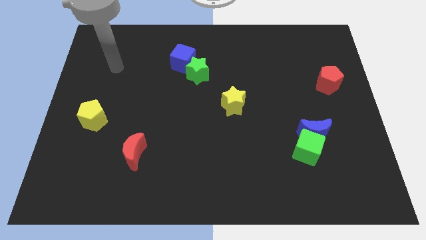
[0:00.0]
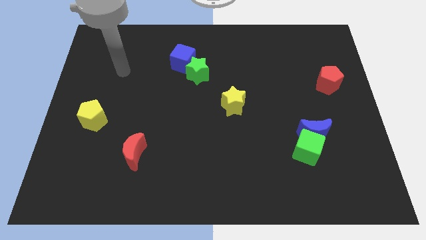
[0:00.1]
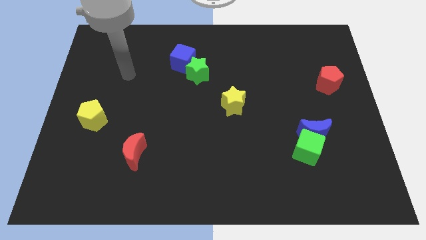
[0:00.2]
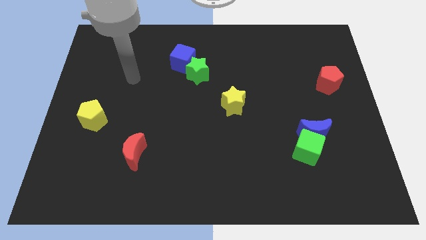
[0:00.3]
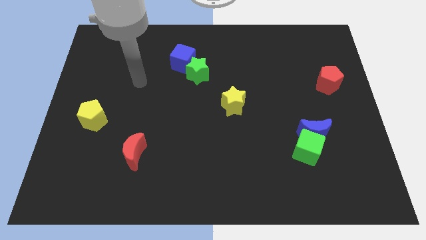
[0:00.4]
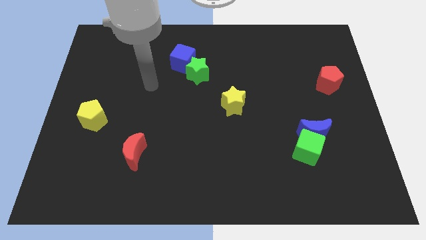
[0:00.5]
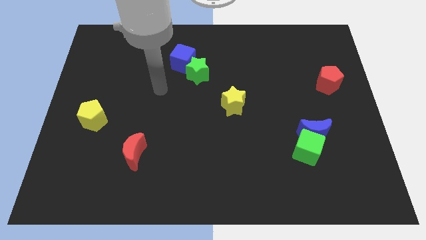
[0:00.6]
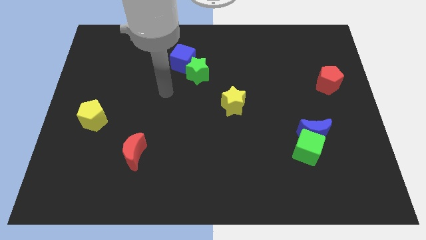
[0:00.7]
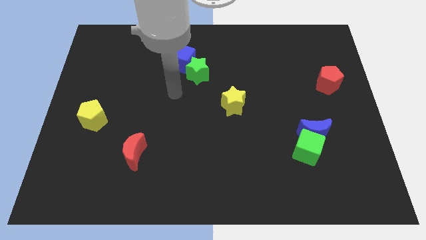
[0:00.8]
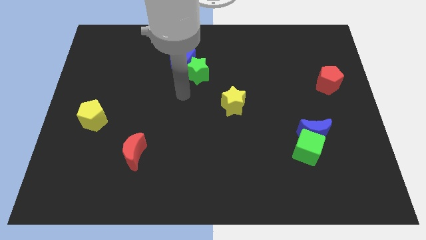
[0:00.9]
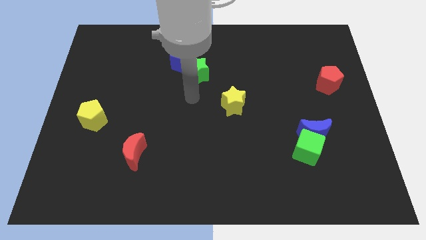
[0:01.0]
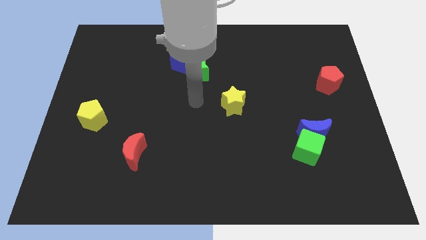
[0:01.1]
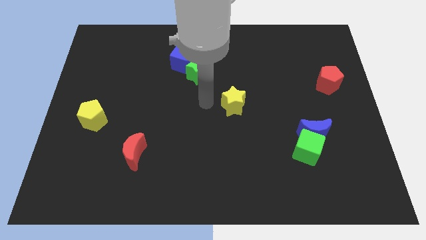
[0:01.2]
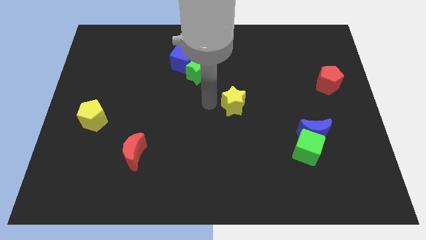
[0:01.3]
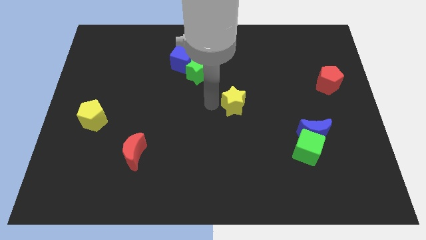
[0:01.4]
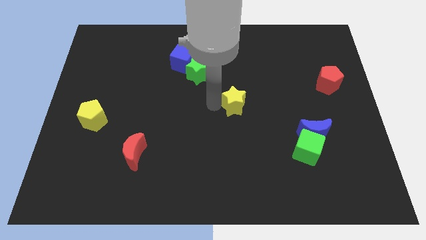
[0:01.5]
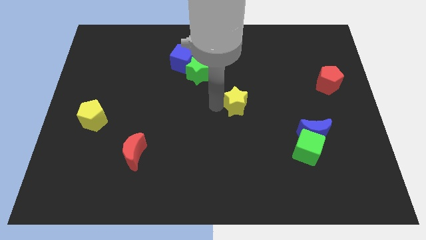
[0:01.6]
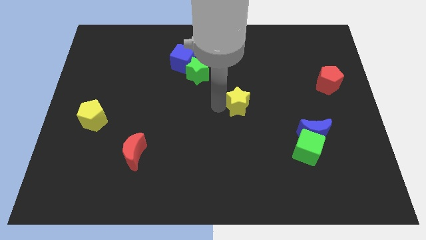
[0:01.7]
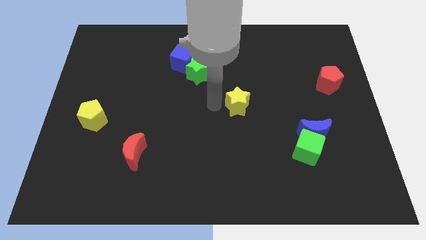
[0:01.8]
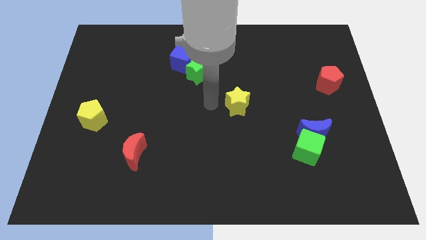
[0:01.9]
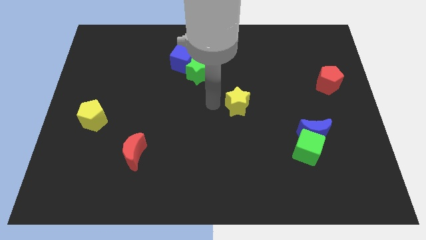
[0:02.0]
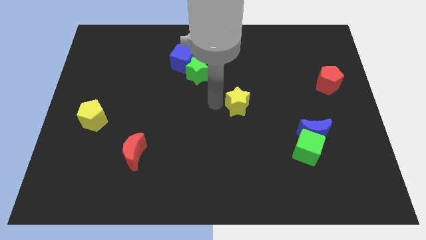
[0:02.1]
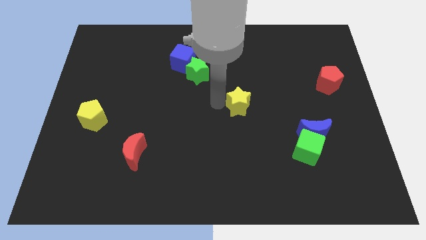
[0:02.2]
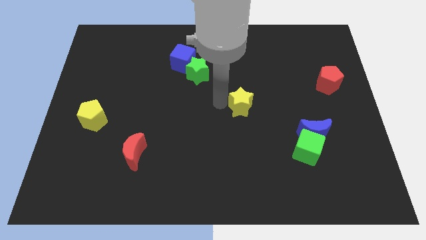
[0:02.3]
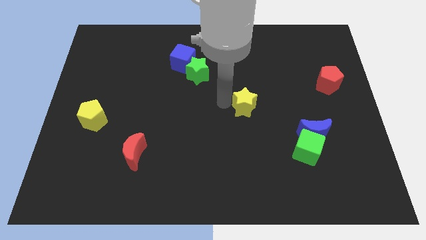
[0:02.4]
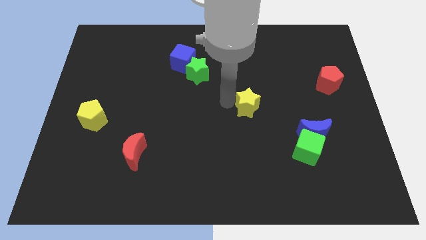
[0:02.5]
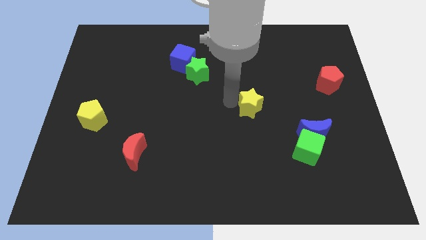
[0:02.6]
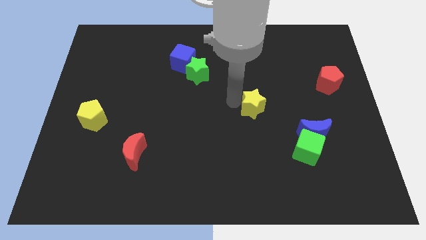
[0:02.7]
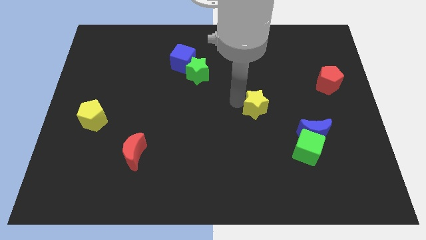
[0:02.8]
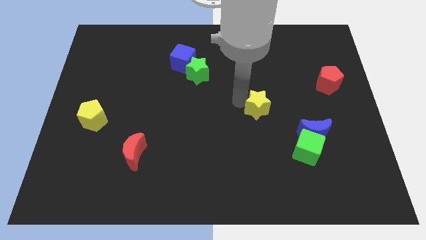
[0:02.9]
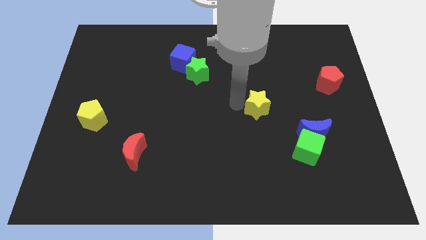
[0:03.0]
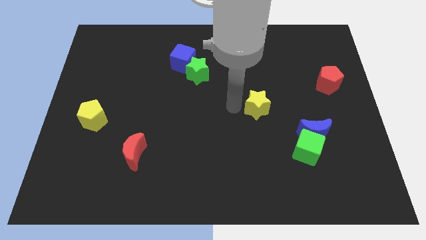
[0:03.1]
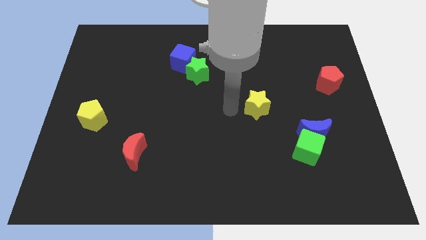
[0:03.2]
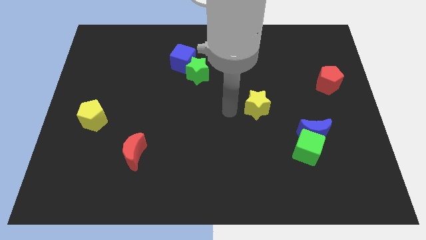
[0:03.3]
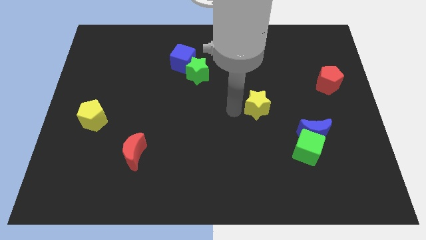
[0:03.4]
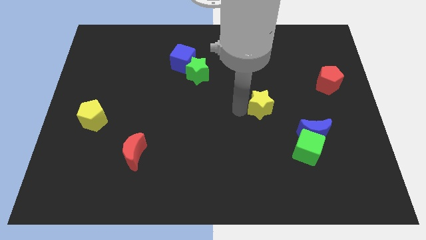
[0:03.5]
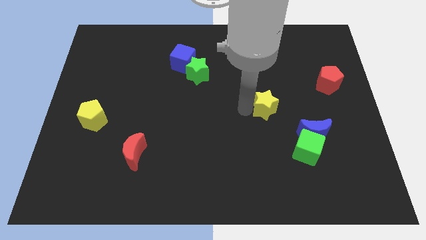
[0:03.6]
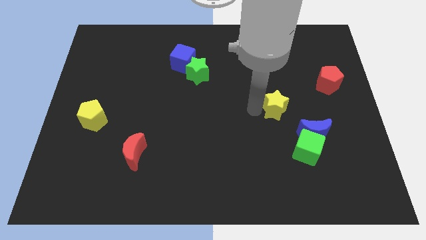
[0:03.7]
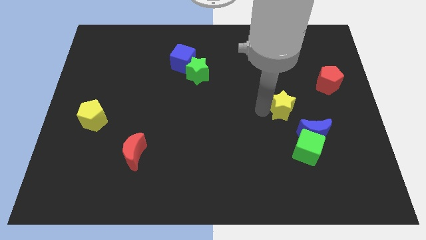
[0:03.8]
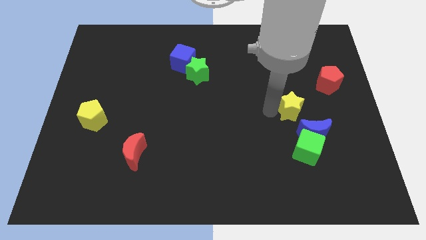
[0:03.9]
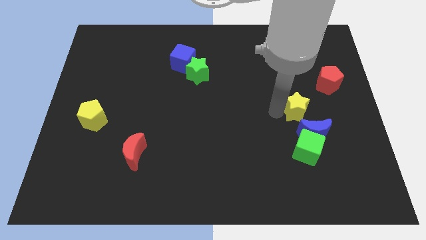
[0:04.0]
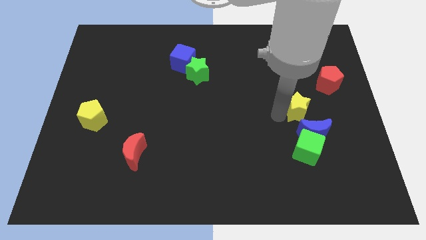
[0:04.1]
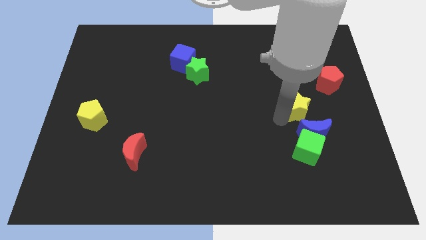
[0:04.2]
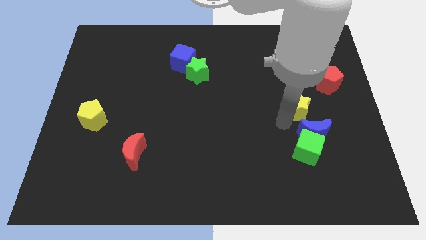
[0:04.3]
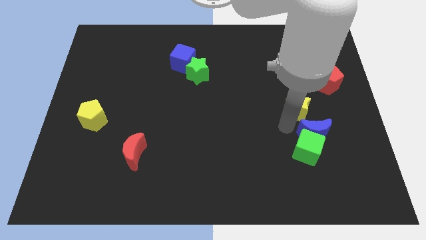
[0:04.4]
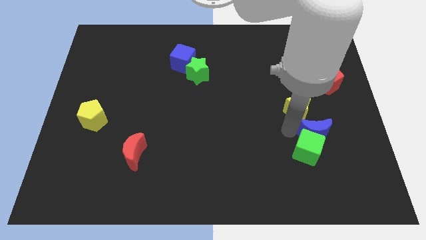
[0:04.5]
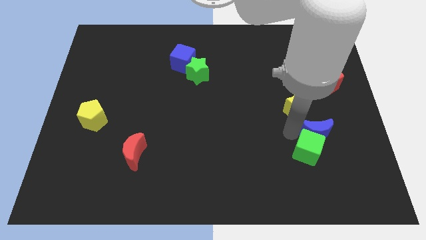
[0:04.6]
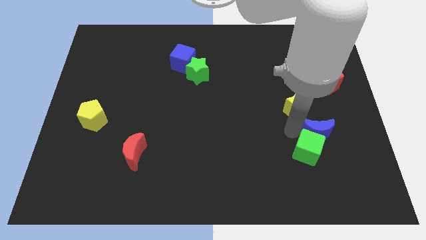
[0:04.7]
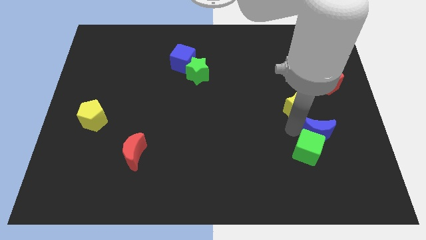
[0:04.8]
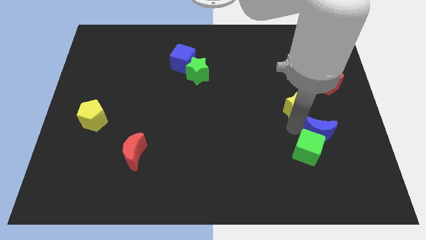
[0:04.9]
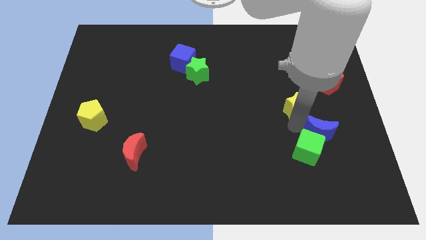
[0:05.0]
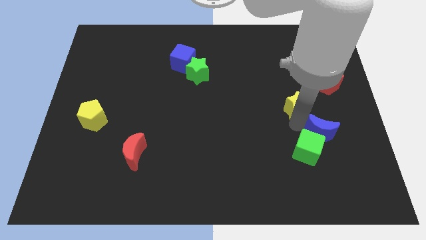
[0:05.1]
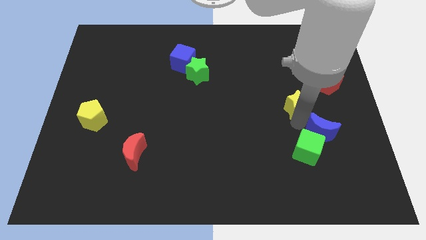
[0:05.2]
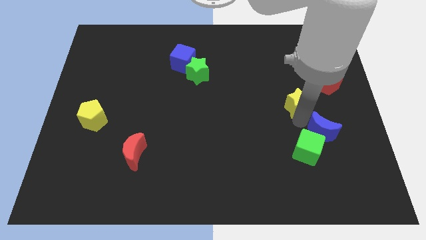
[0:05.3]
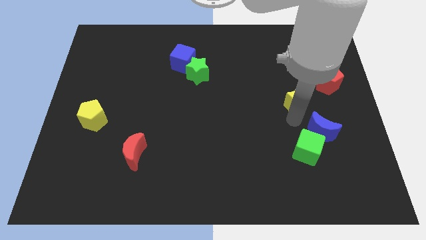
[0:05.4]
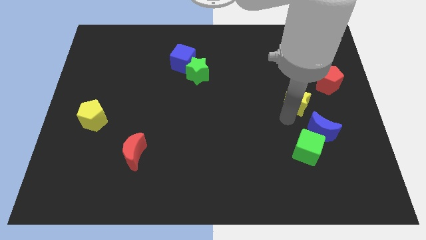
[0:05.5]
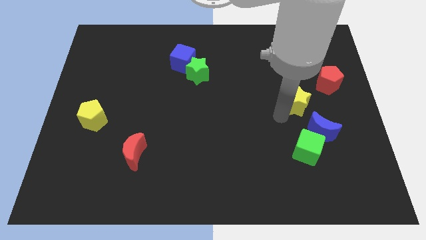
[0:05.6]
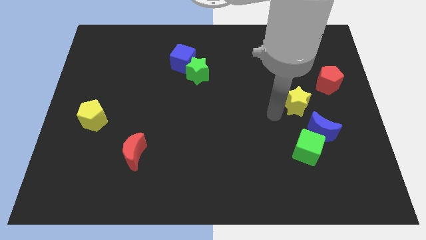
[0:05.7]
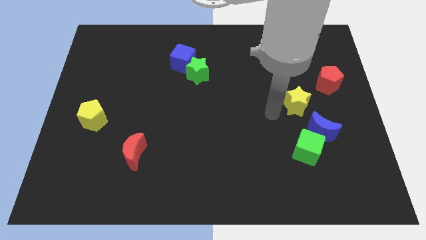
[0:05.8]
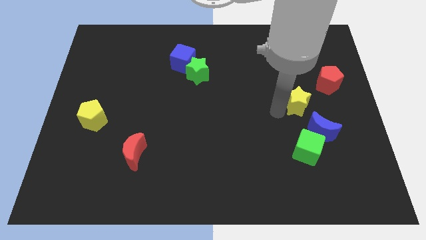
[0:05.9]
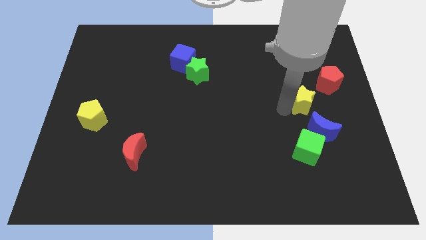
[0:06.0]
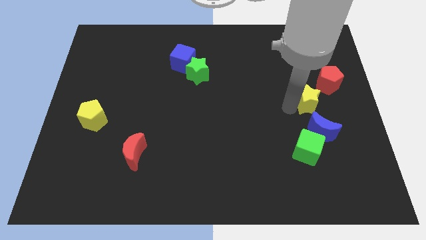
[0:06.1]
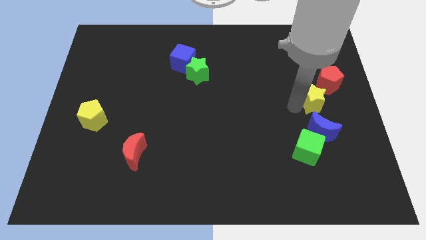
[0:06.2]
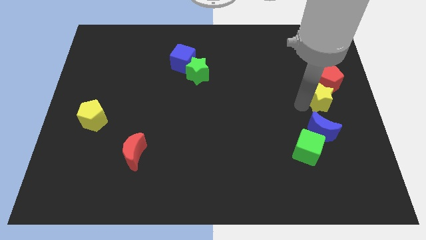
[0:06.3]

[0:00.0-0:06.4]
slide the yellow star to the center right
